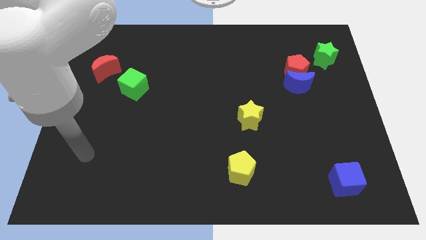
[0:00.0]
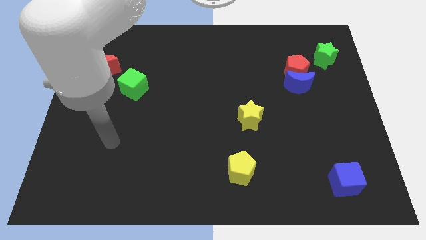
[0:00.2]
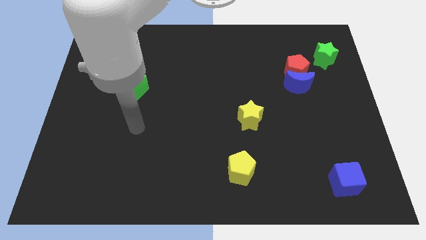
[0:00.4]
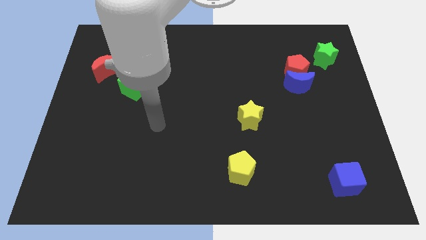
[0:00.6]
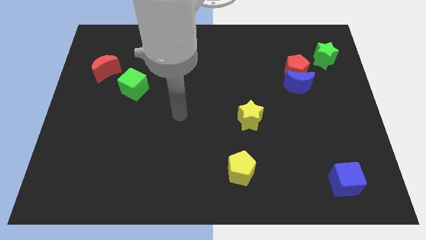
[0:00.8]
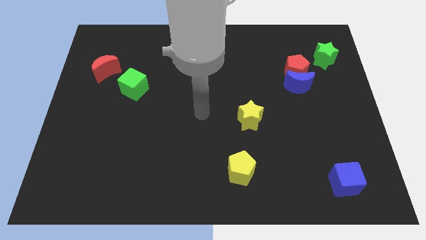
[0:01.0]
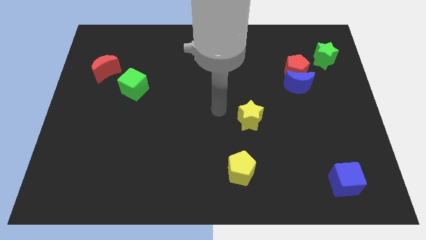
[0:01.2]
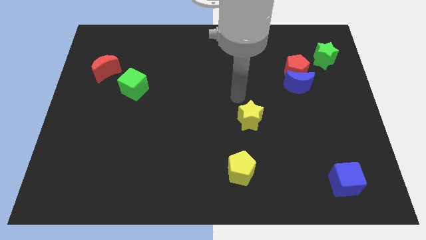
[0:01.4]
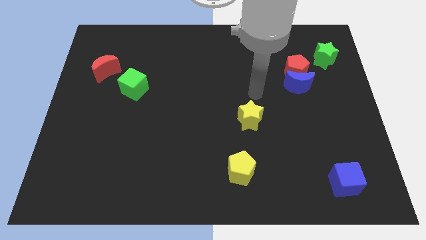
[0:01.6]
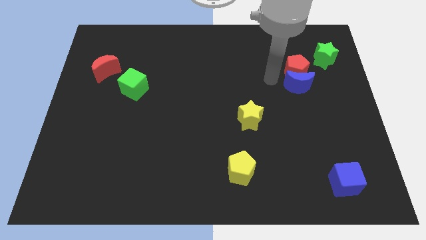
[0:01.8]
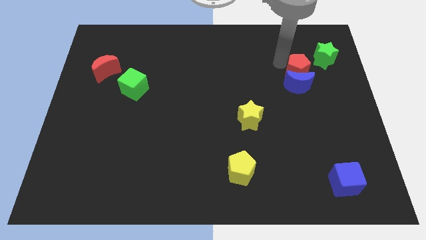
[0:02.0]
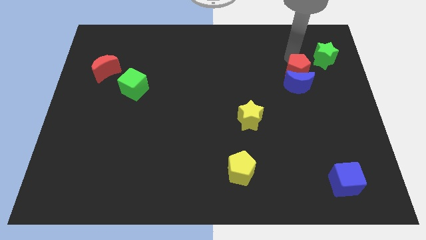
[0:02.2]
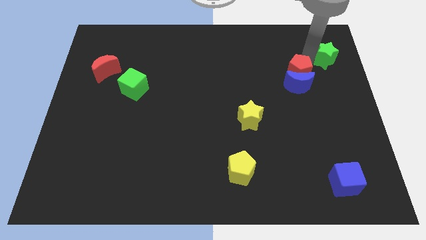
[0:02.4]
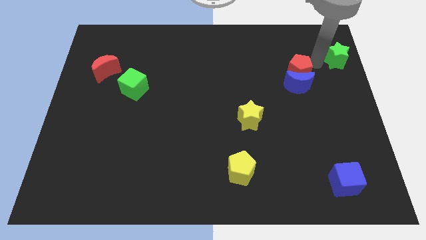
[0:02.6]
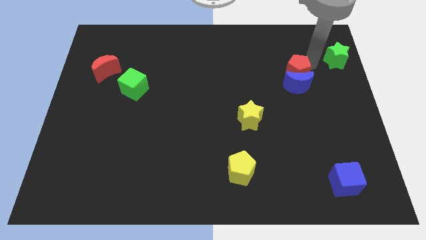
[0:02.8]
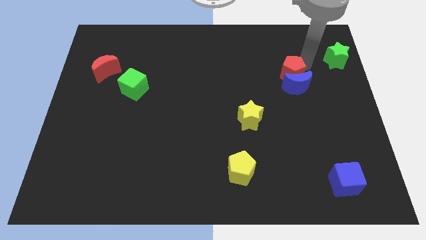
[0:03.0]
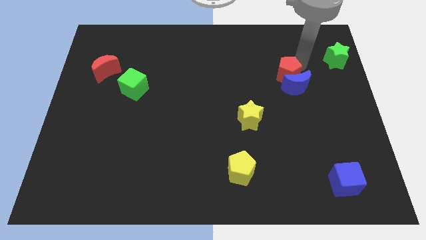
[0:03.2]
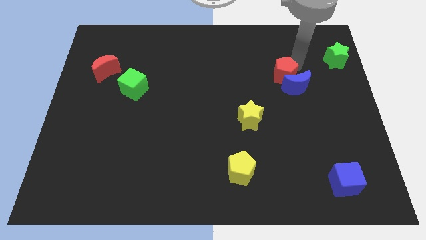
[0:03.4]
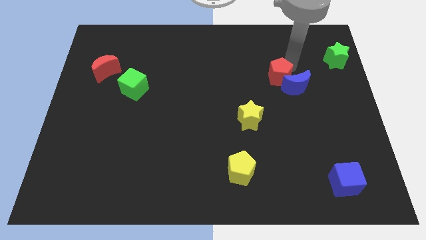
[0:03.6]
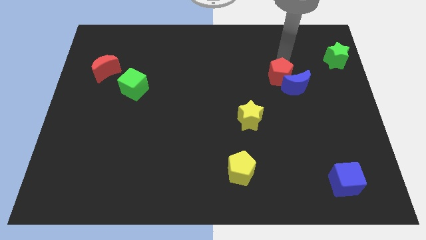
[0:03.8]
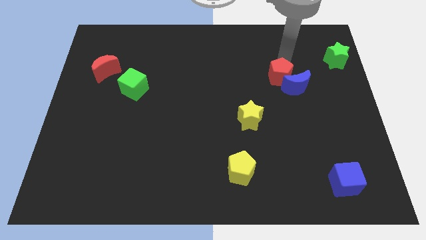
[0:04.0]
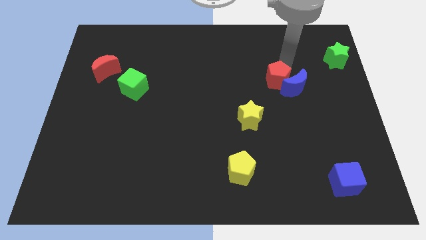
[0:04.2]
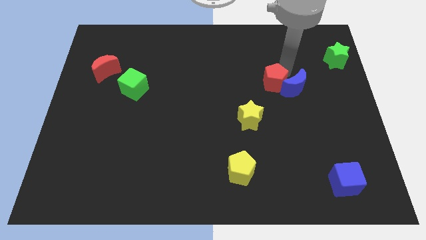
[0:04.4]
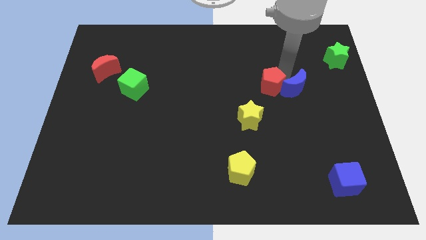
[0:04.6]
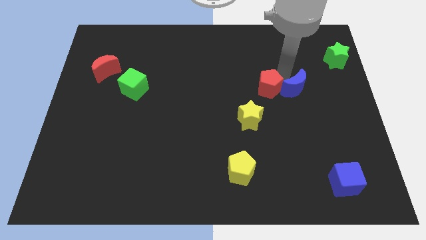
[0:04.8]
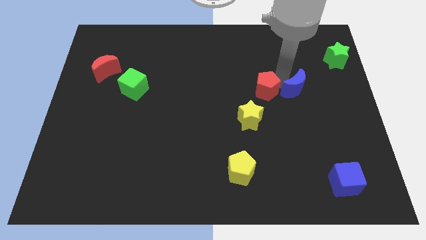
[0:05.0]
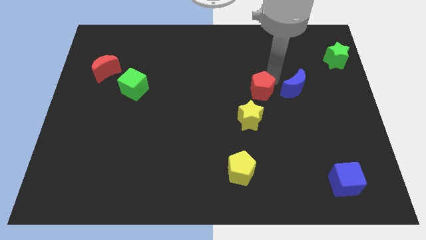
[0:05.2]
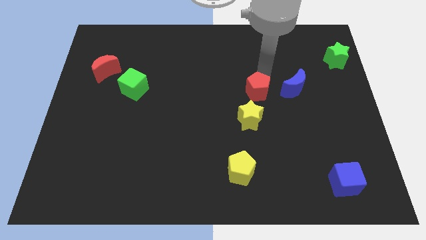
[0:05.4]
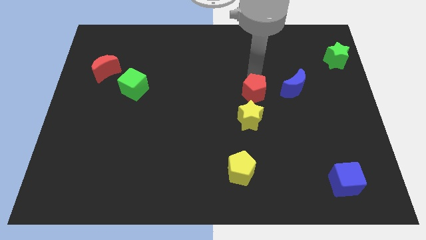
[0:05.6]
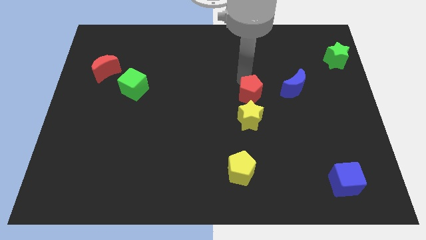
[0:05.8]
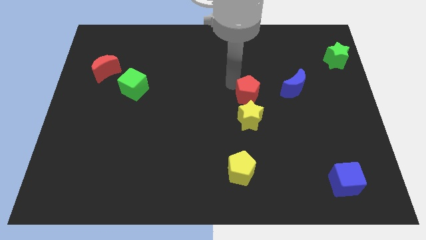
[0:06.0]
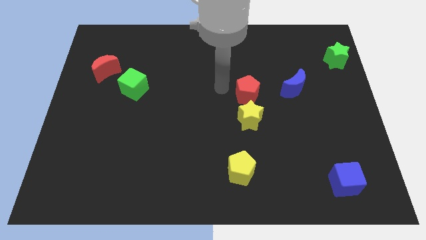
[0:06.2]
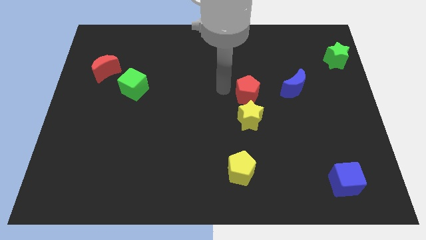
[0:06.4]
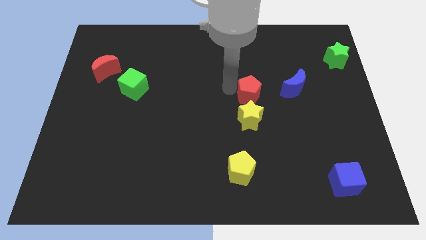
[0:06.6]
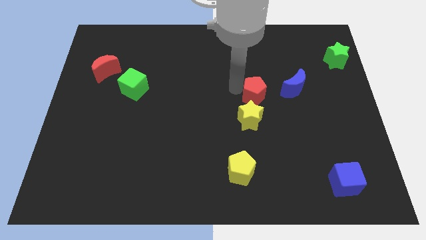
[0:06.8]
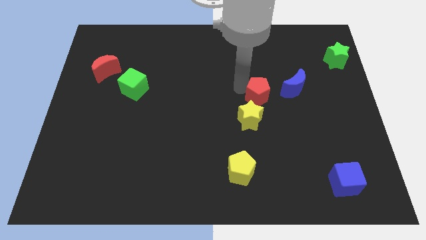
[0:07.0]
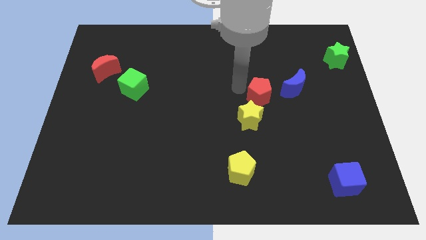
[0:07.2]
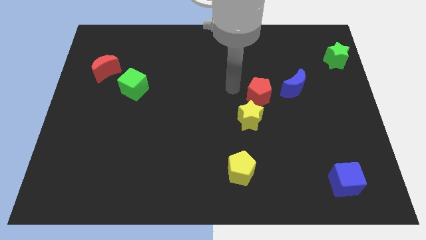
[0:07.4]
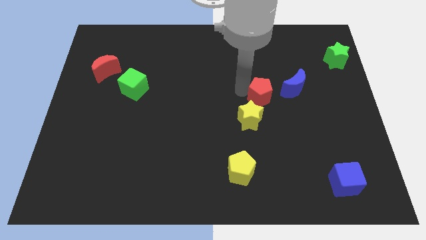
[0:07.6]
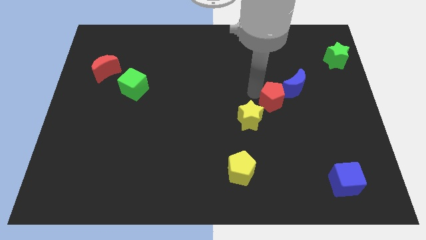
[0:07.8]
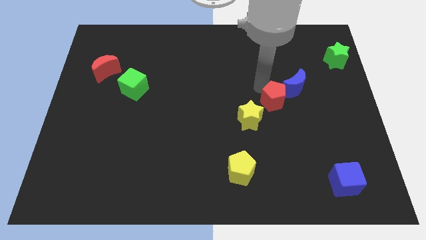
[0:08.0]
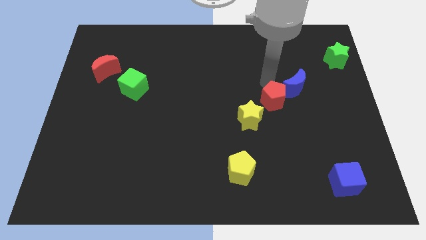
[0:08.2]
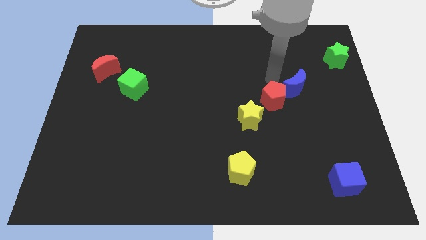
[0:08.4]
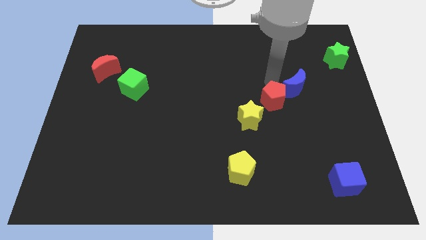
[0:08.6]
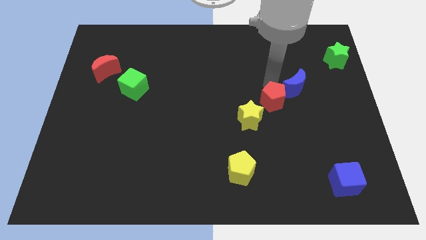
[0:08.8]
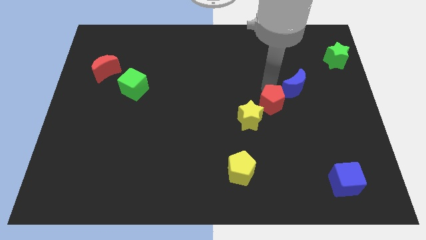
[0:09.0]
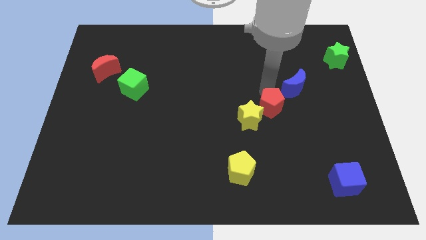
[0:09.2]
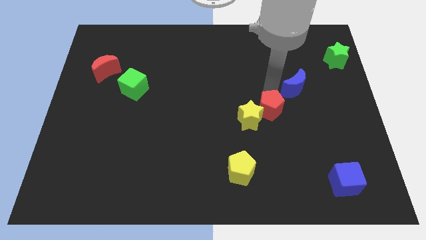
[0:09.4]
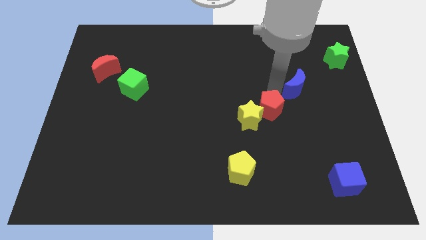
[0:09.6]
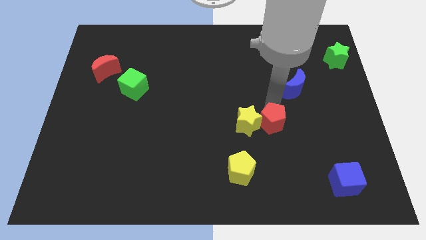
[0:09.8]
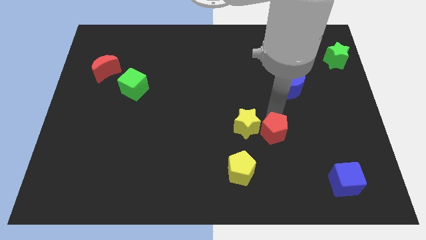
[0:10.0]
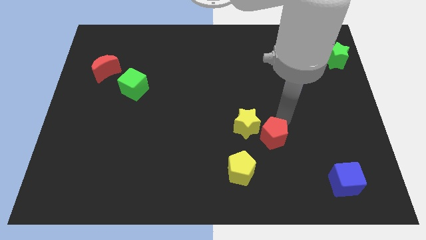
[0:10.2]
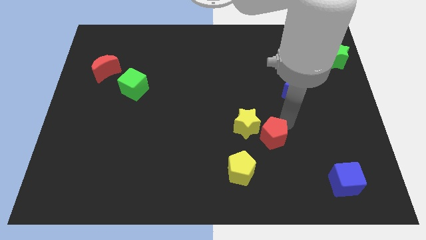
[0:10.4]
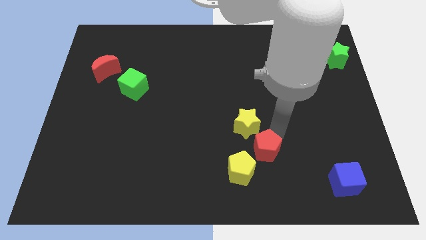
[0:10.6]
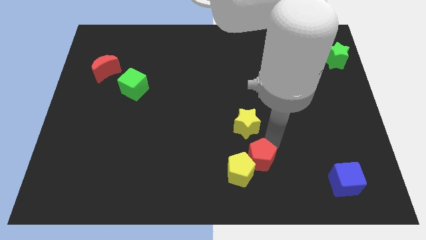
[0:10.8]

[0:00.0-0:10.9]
slide the red pentagon towards the yellow pentagon

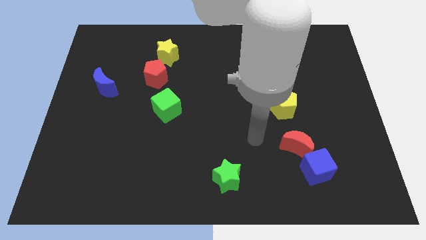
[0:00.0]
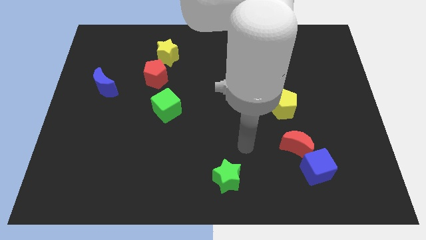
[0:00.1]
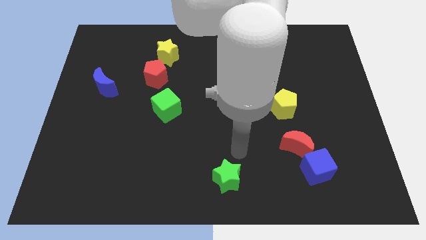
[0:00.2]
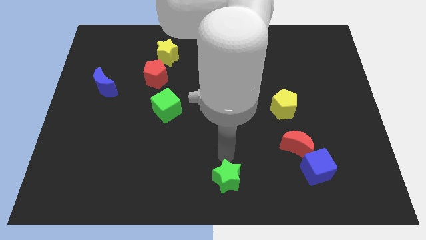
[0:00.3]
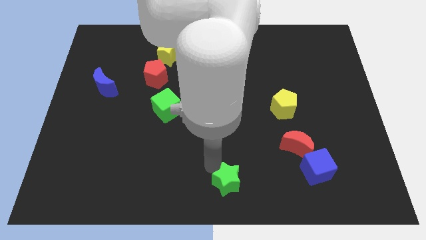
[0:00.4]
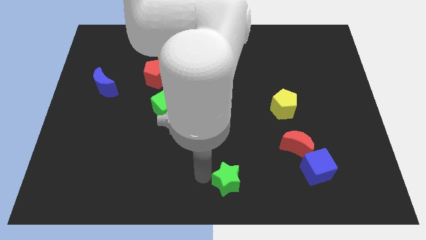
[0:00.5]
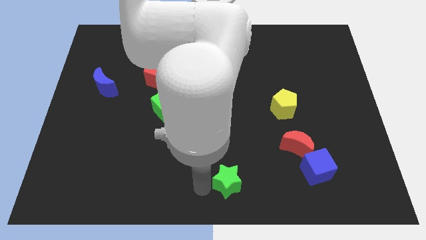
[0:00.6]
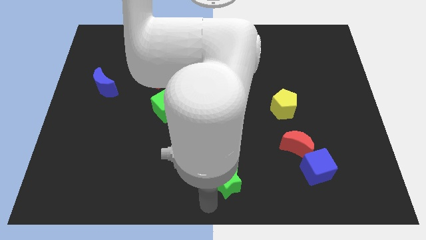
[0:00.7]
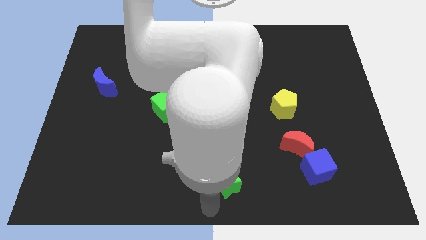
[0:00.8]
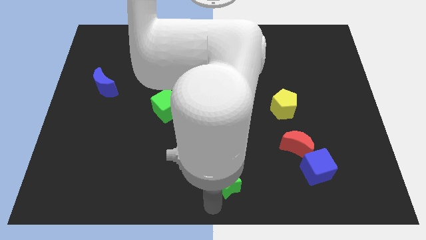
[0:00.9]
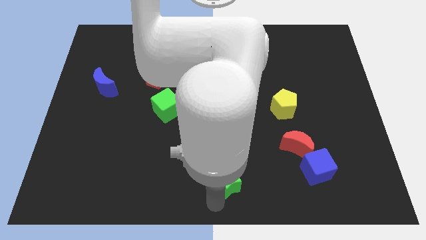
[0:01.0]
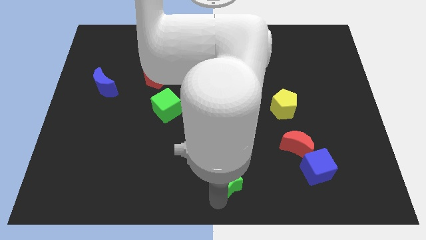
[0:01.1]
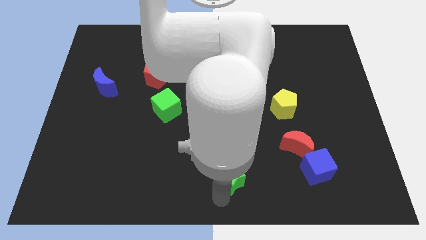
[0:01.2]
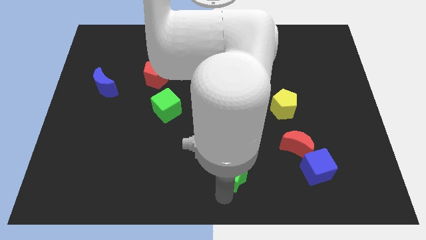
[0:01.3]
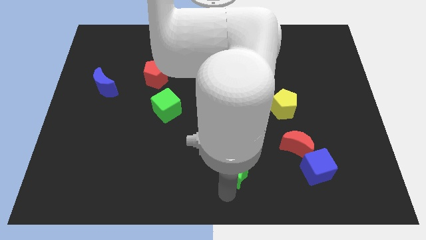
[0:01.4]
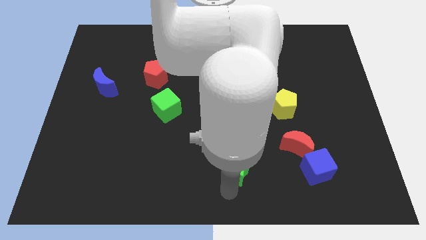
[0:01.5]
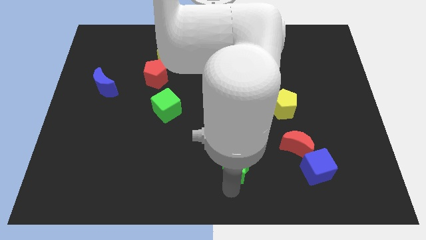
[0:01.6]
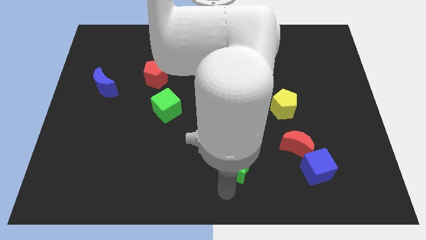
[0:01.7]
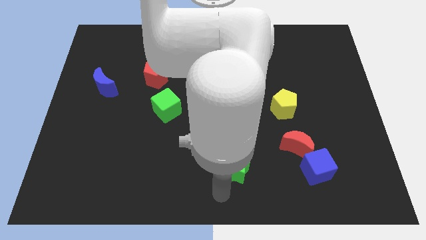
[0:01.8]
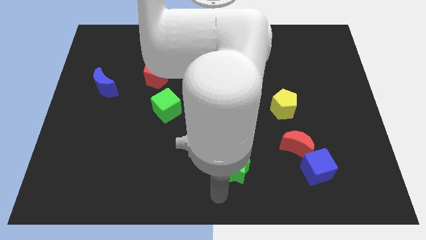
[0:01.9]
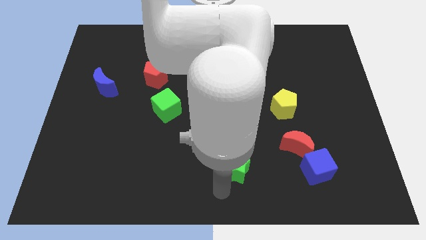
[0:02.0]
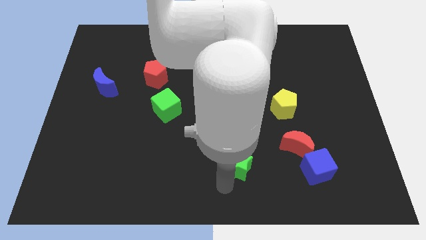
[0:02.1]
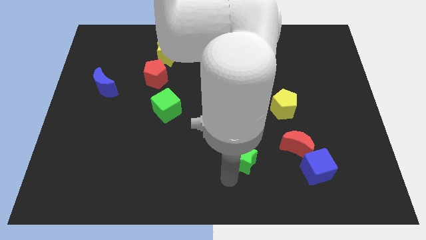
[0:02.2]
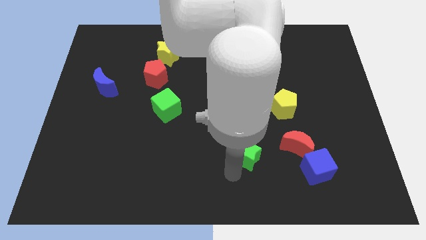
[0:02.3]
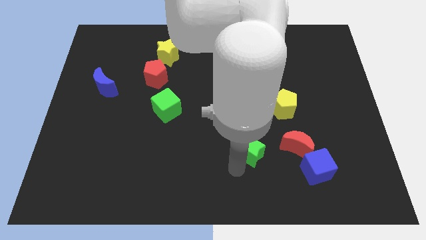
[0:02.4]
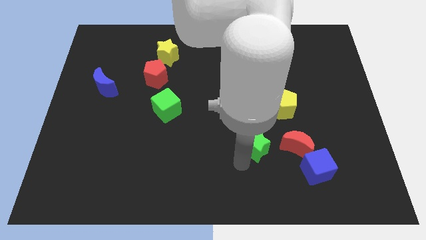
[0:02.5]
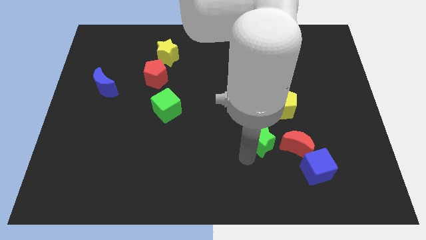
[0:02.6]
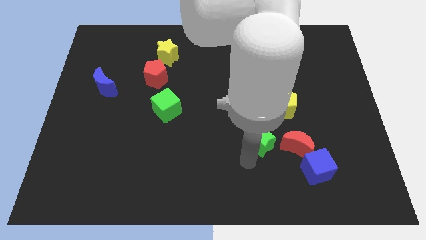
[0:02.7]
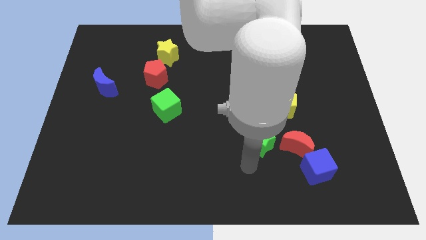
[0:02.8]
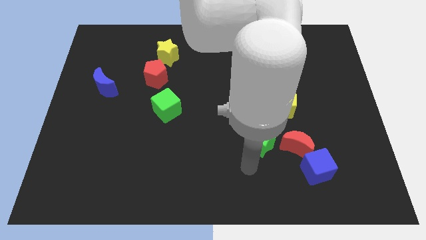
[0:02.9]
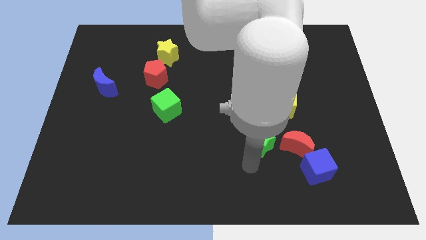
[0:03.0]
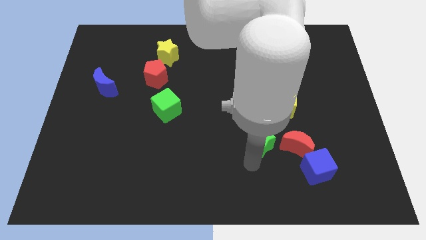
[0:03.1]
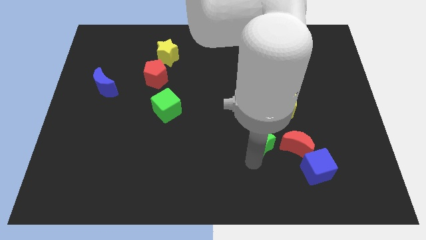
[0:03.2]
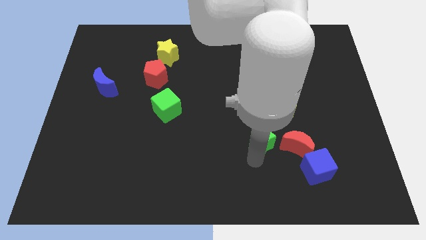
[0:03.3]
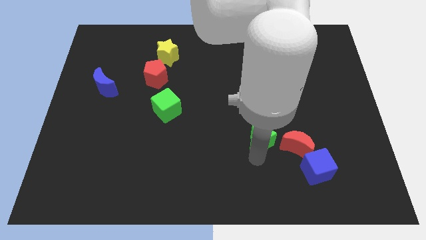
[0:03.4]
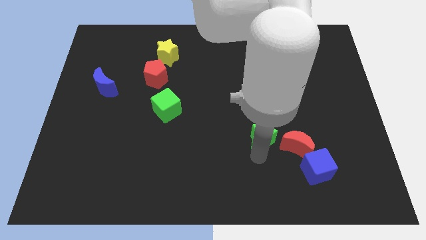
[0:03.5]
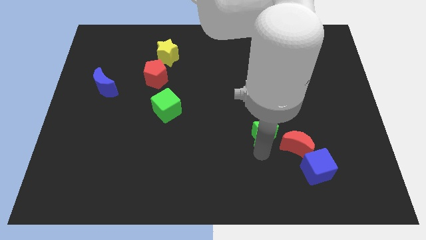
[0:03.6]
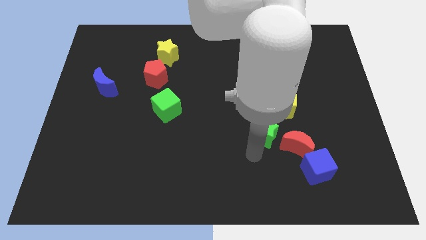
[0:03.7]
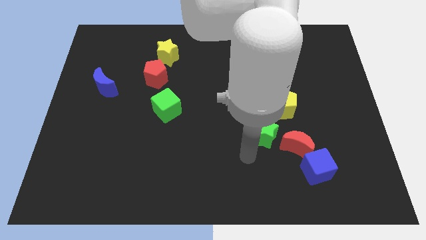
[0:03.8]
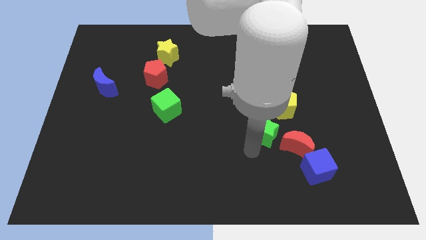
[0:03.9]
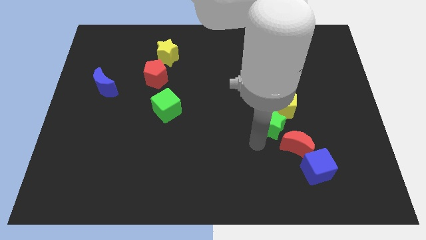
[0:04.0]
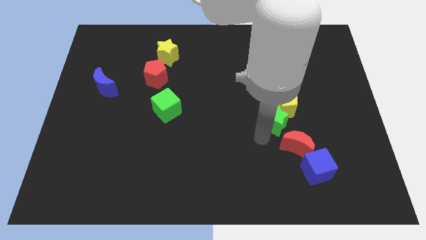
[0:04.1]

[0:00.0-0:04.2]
slide the green star next to the yellow pentagon
